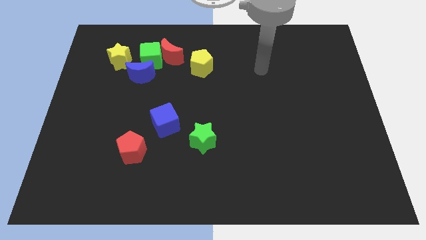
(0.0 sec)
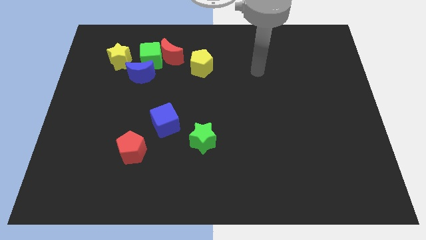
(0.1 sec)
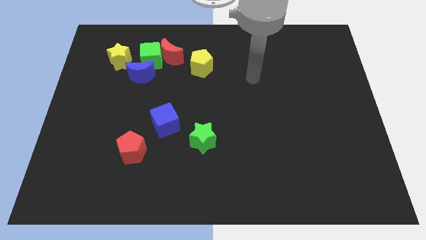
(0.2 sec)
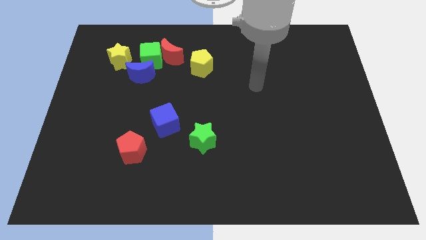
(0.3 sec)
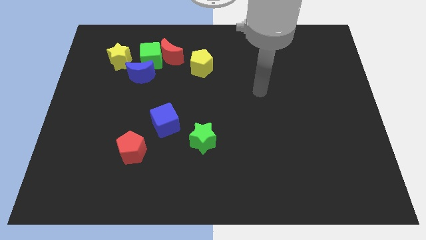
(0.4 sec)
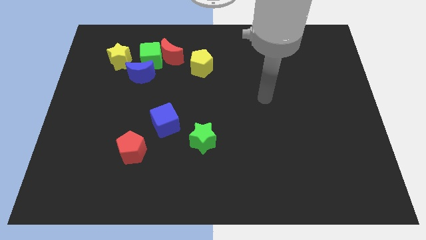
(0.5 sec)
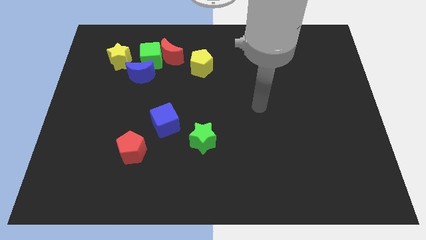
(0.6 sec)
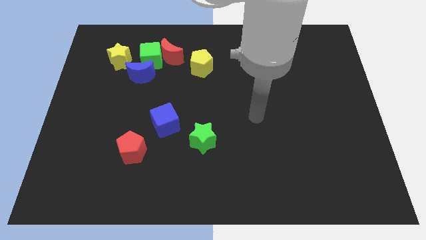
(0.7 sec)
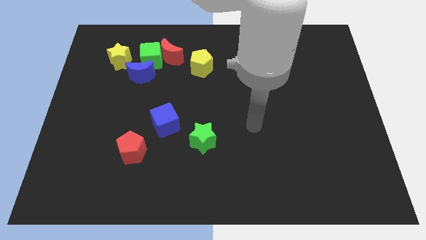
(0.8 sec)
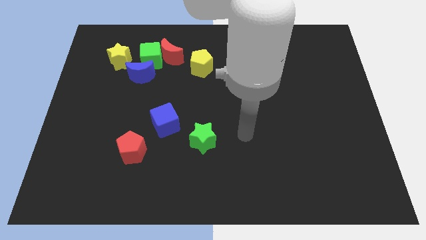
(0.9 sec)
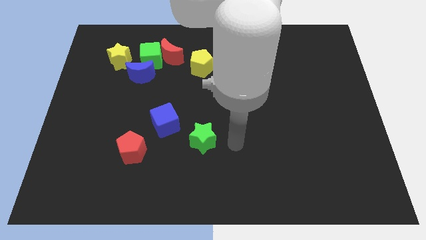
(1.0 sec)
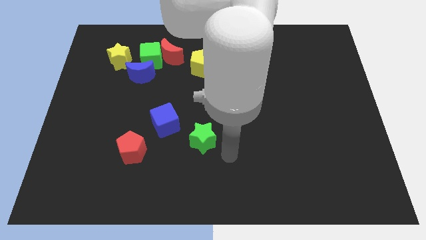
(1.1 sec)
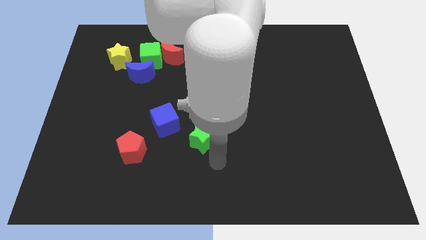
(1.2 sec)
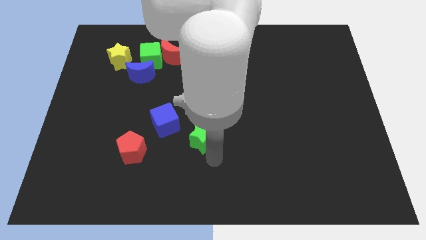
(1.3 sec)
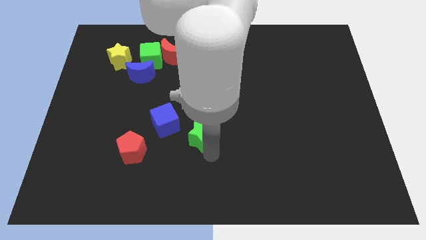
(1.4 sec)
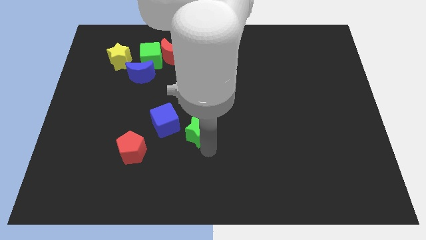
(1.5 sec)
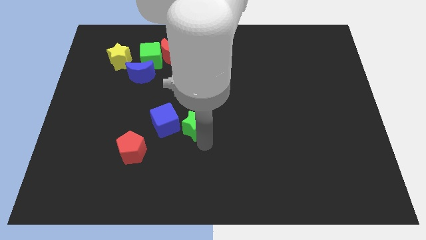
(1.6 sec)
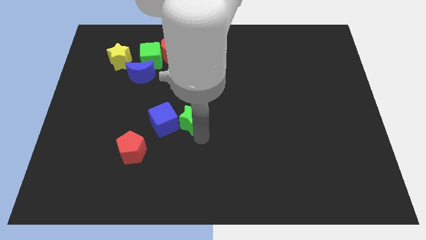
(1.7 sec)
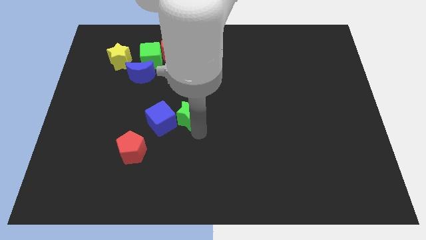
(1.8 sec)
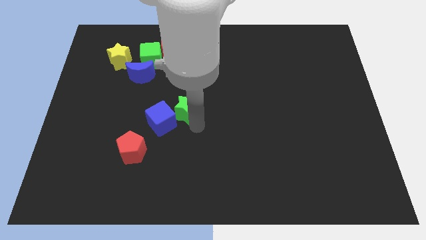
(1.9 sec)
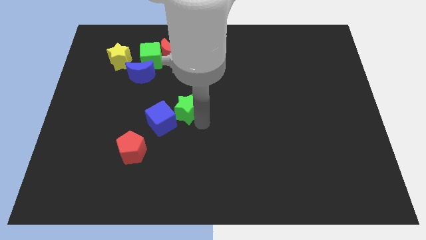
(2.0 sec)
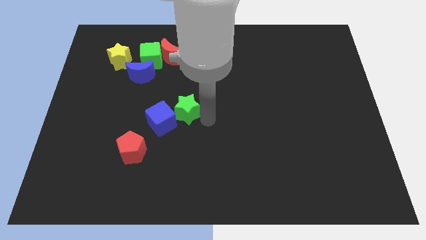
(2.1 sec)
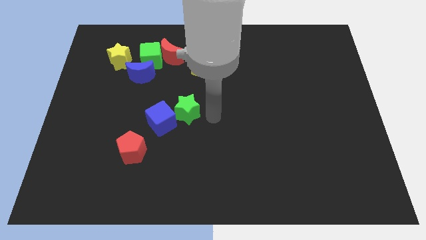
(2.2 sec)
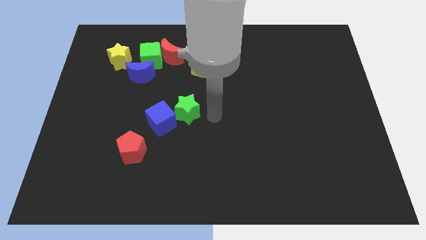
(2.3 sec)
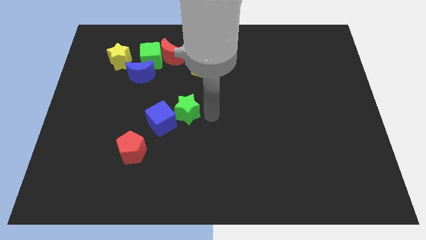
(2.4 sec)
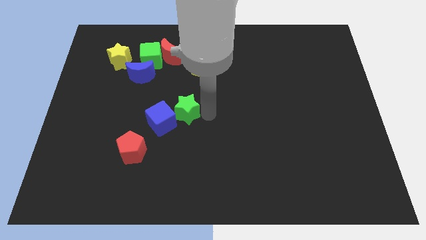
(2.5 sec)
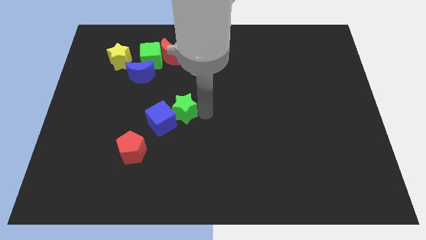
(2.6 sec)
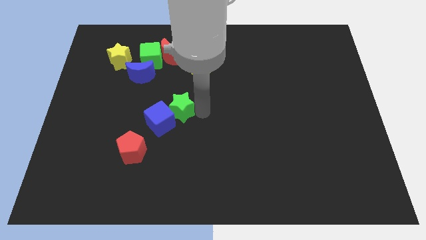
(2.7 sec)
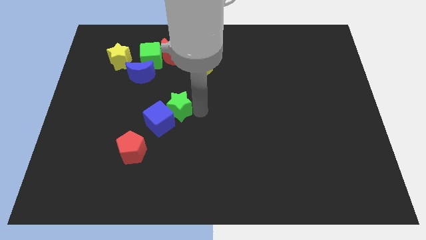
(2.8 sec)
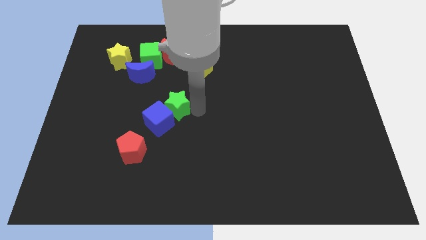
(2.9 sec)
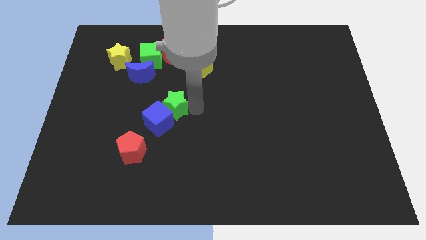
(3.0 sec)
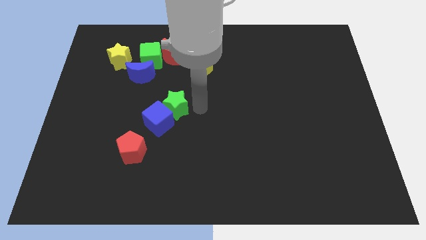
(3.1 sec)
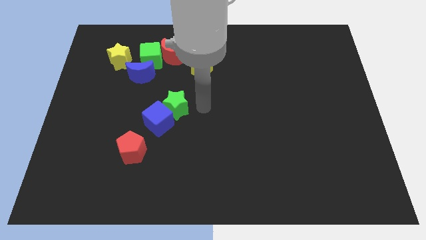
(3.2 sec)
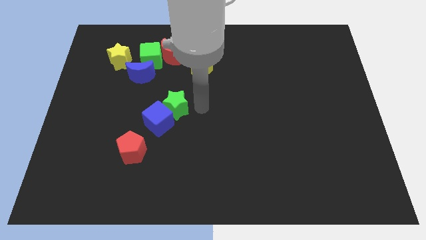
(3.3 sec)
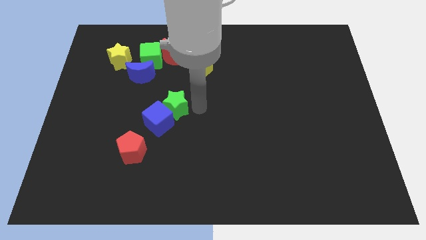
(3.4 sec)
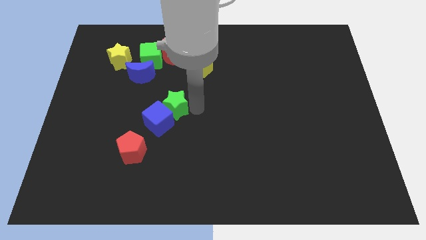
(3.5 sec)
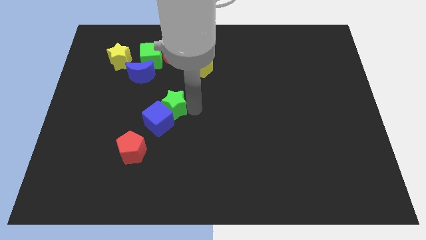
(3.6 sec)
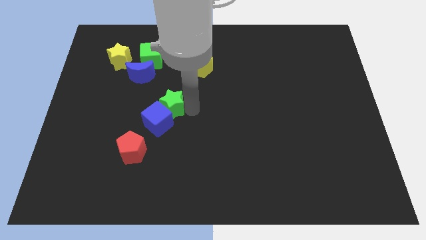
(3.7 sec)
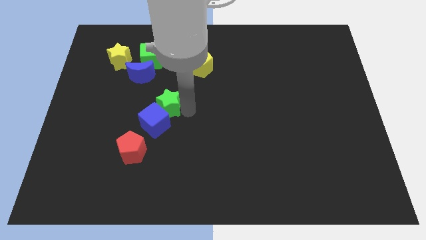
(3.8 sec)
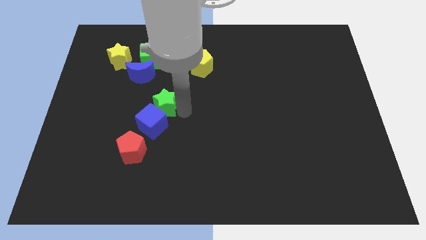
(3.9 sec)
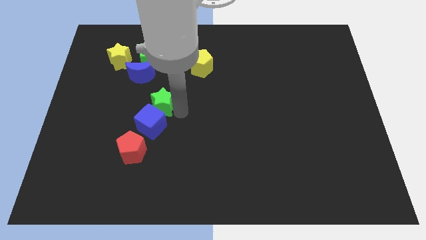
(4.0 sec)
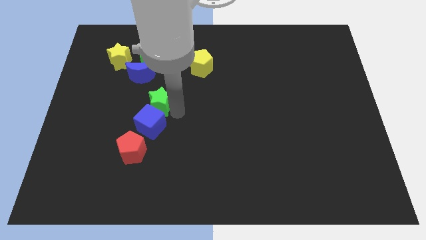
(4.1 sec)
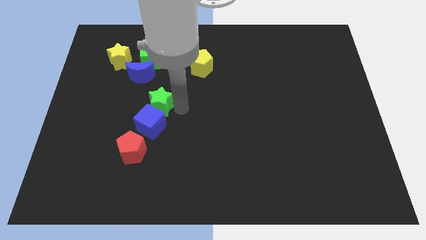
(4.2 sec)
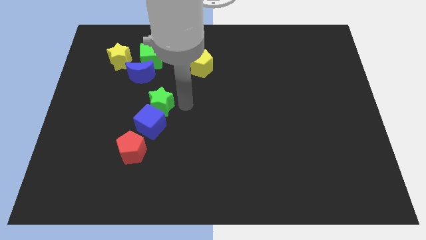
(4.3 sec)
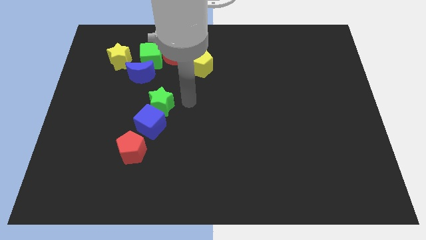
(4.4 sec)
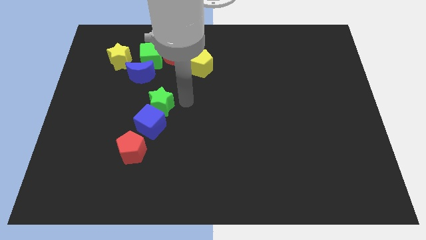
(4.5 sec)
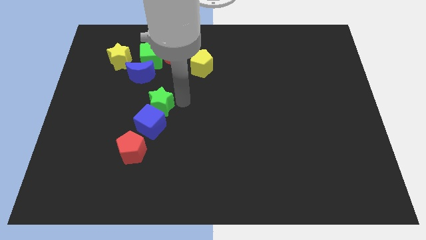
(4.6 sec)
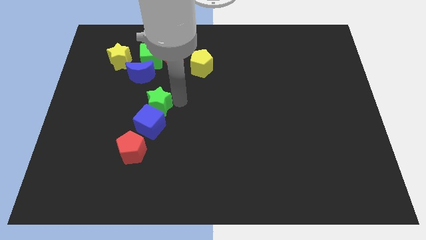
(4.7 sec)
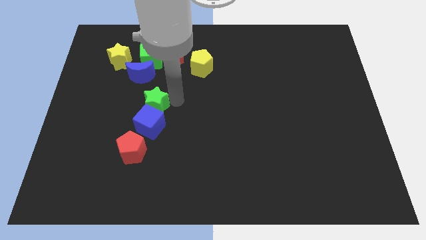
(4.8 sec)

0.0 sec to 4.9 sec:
push the green star to the bottom of the blue moon

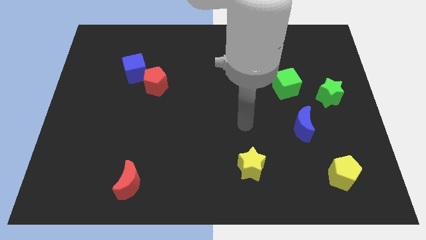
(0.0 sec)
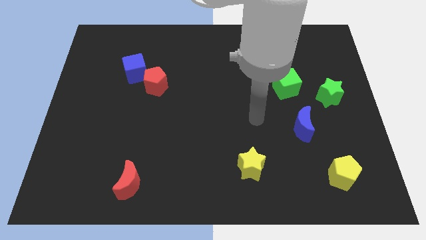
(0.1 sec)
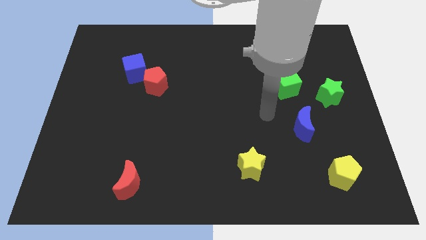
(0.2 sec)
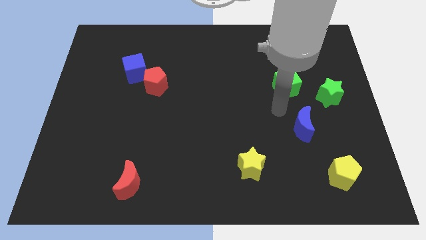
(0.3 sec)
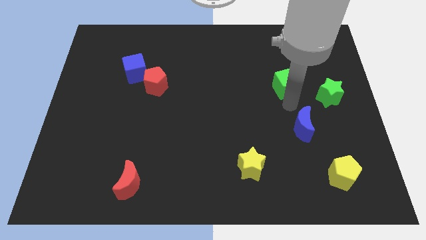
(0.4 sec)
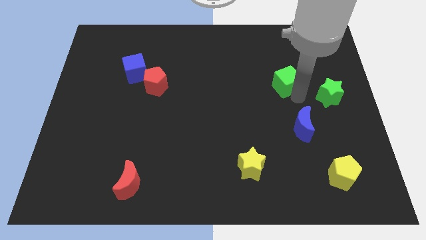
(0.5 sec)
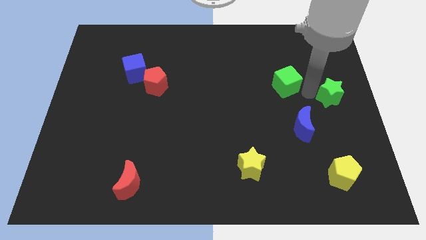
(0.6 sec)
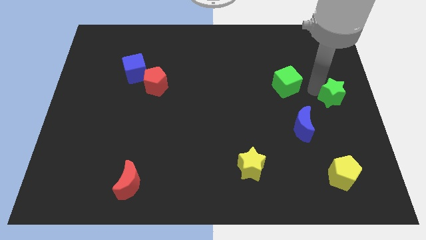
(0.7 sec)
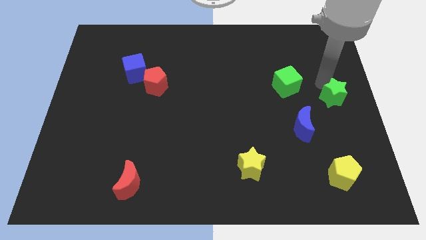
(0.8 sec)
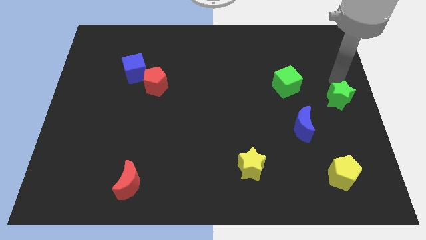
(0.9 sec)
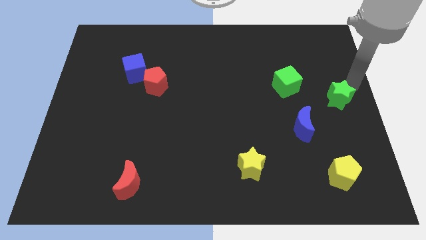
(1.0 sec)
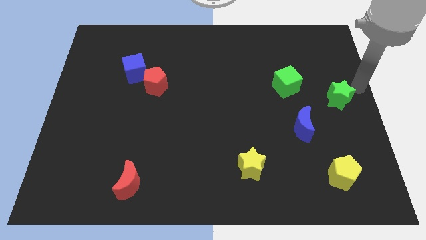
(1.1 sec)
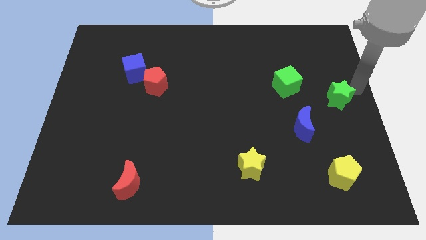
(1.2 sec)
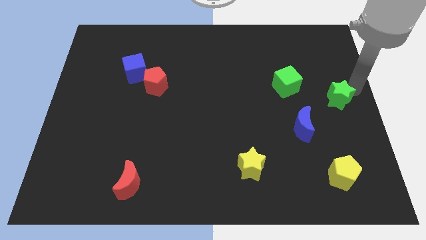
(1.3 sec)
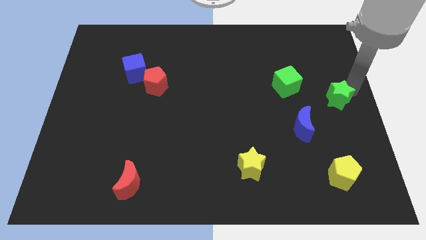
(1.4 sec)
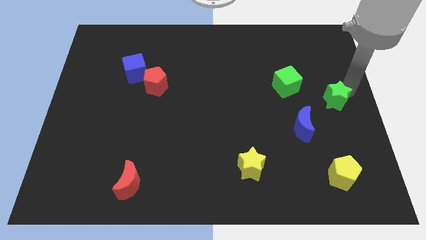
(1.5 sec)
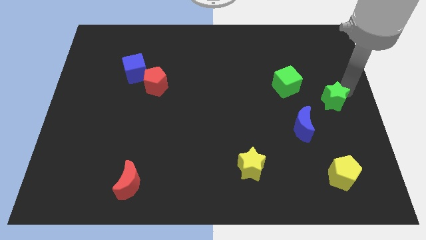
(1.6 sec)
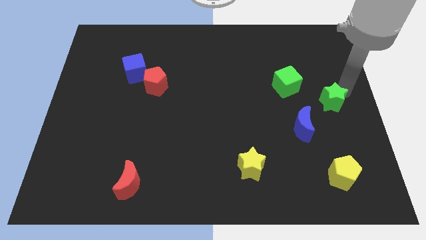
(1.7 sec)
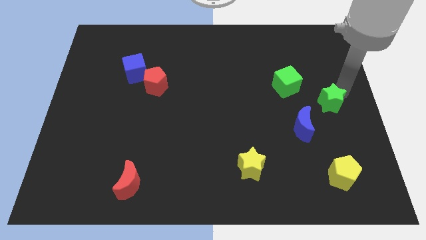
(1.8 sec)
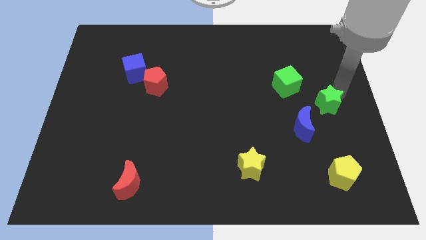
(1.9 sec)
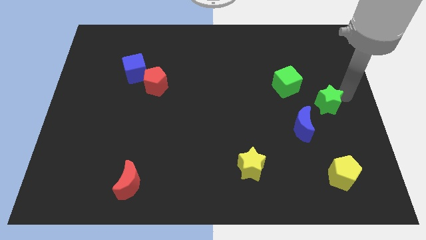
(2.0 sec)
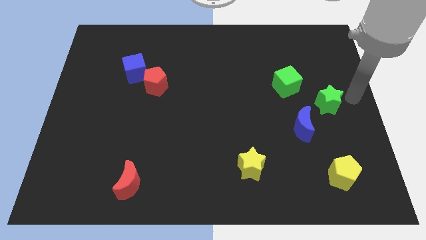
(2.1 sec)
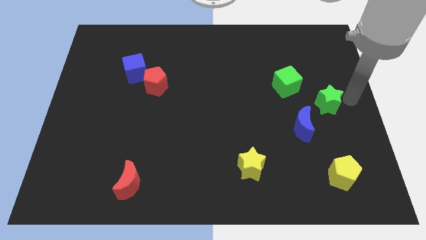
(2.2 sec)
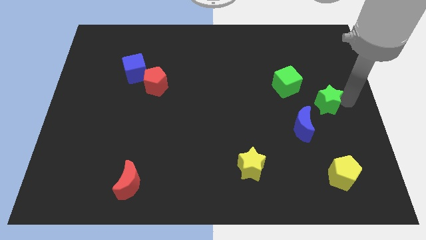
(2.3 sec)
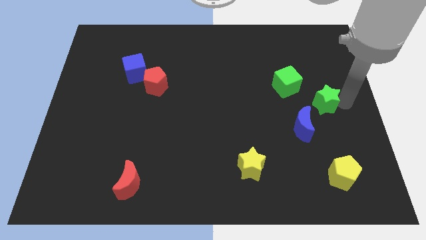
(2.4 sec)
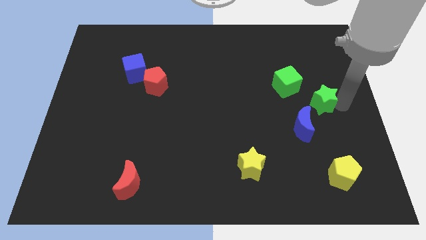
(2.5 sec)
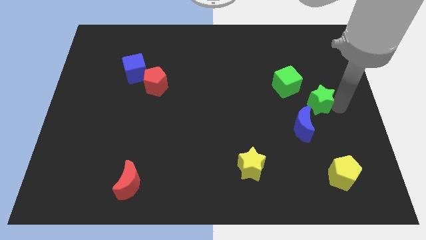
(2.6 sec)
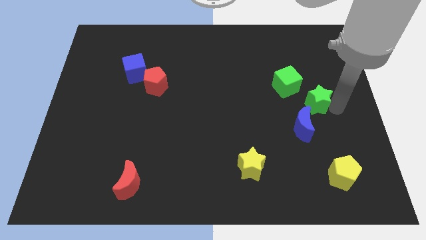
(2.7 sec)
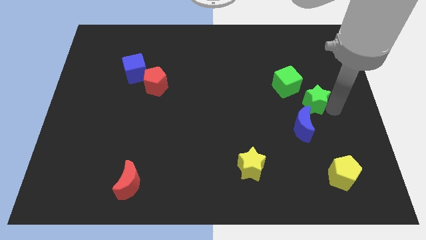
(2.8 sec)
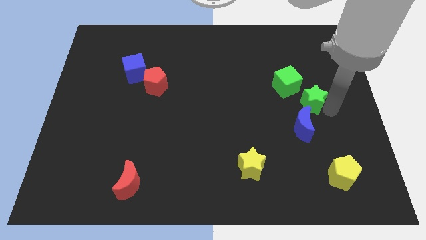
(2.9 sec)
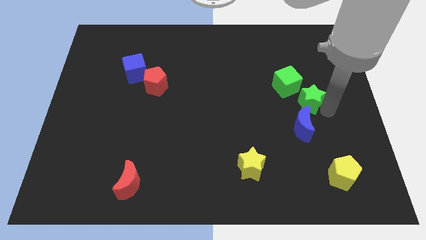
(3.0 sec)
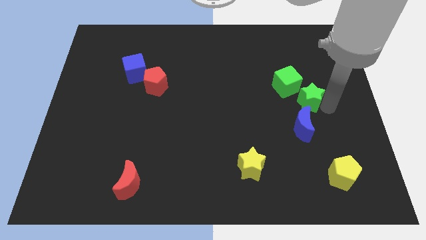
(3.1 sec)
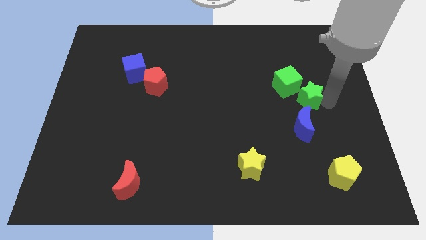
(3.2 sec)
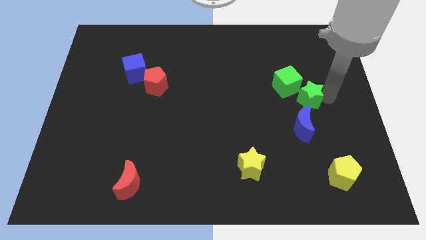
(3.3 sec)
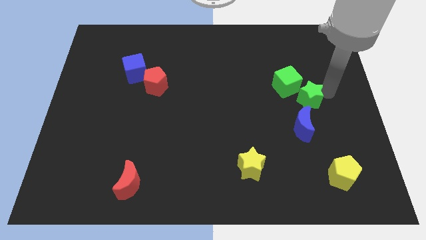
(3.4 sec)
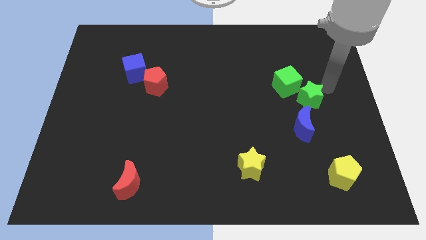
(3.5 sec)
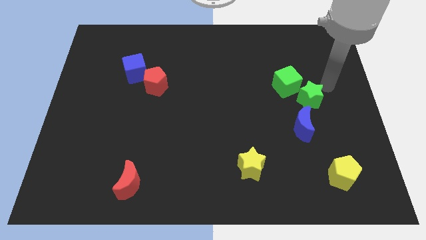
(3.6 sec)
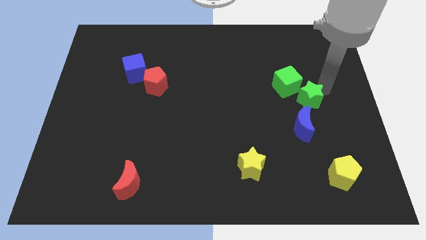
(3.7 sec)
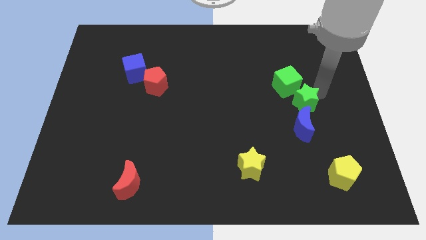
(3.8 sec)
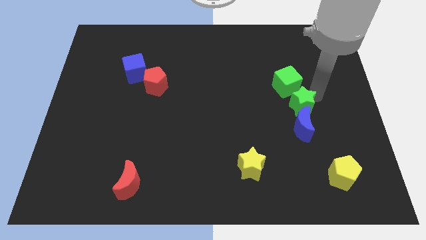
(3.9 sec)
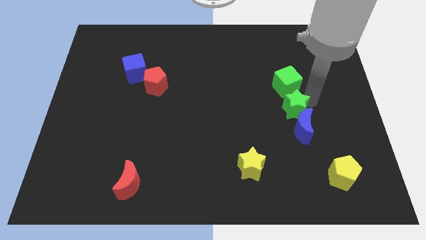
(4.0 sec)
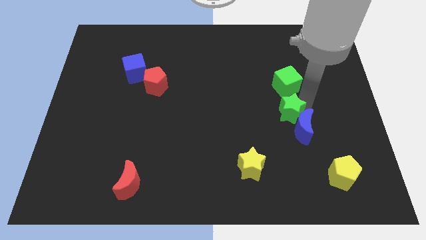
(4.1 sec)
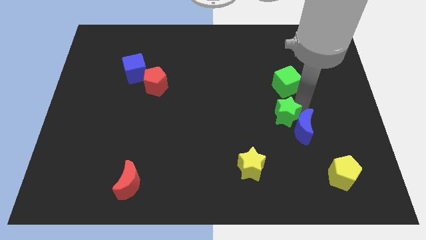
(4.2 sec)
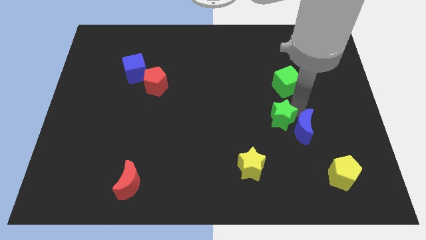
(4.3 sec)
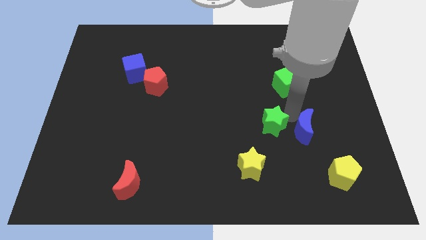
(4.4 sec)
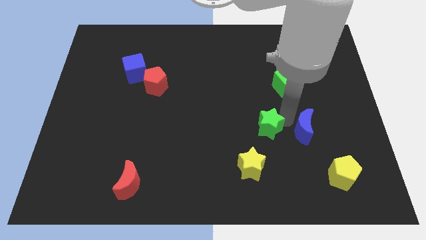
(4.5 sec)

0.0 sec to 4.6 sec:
put the green star to the top of the yellow star
